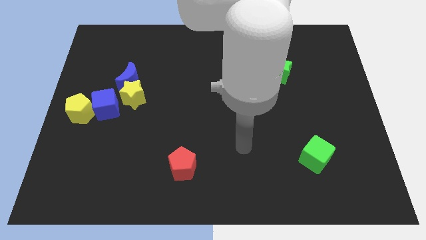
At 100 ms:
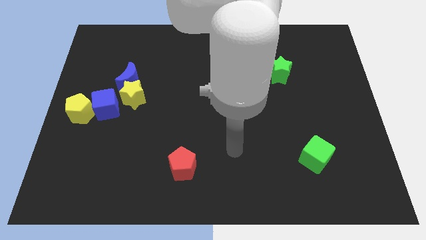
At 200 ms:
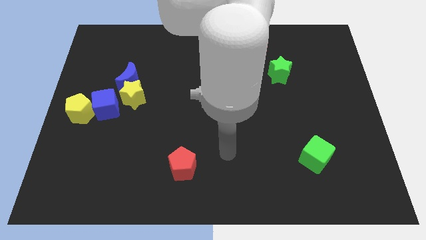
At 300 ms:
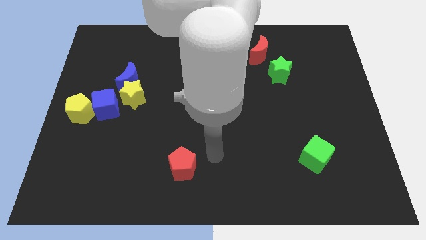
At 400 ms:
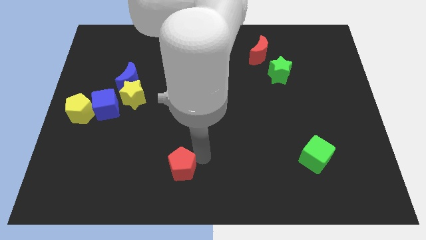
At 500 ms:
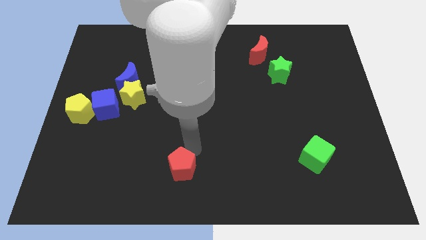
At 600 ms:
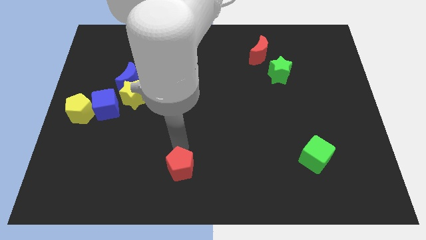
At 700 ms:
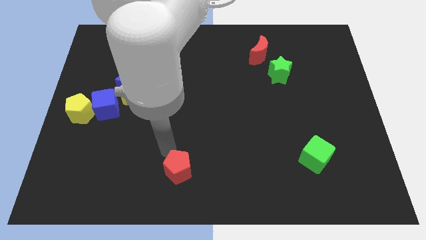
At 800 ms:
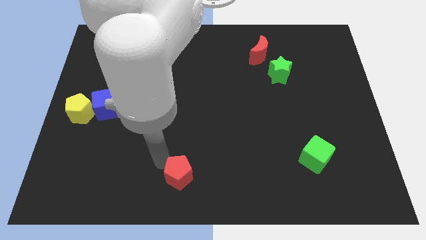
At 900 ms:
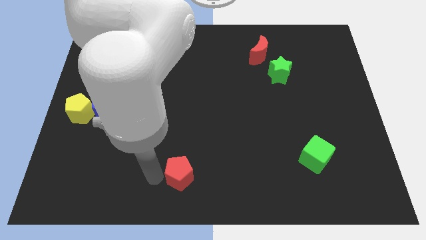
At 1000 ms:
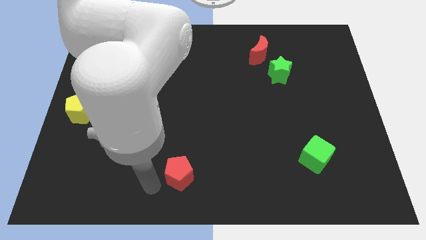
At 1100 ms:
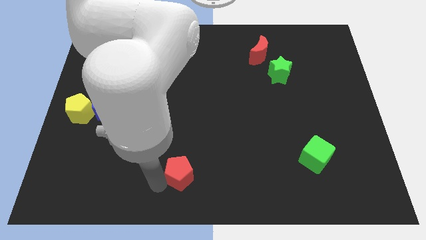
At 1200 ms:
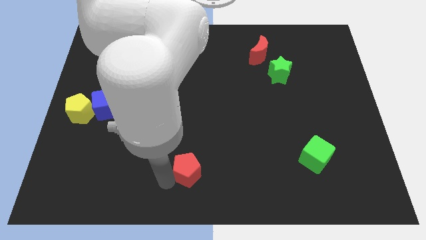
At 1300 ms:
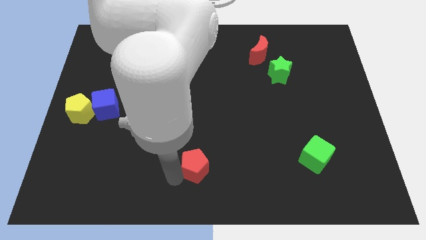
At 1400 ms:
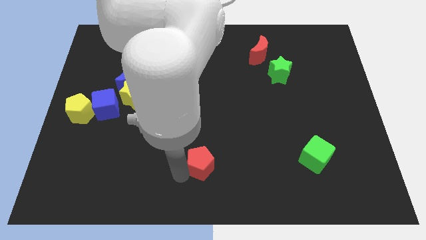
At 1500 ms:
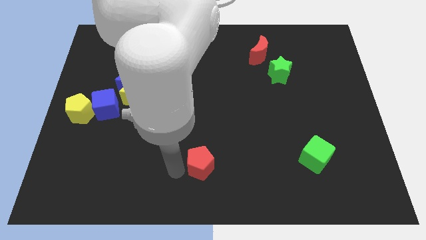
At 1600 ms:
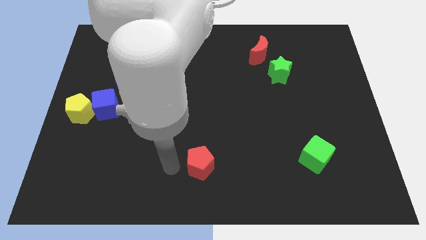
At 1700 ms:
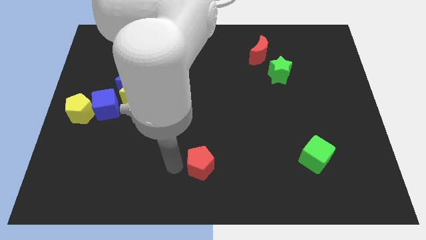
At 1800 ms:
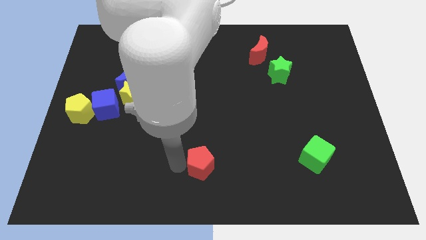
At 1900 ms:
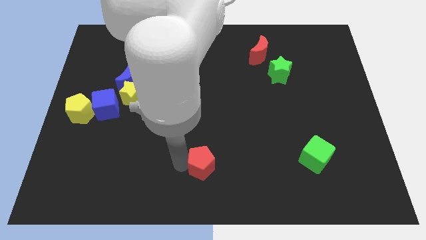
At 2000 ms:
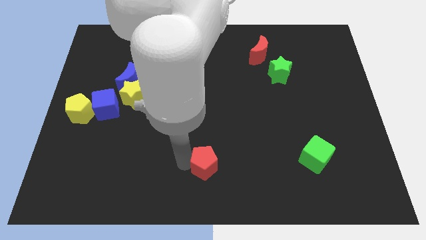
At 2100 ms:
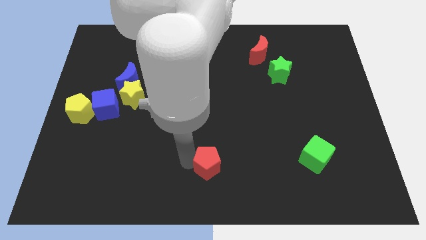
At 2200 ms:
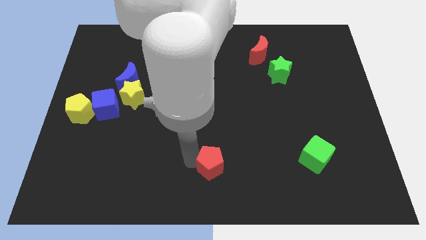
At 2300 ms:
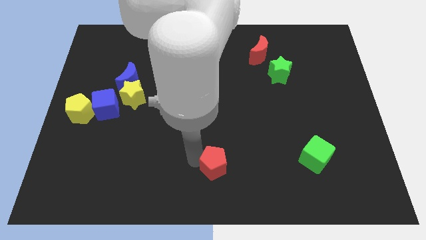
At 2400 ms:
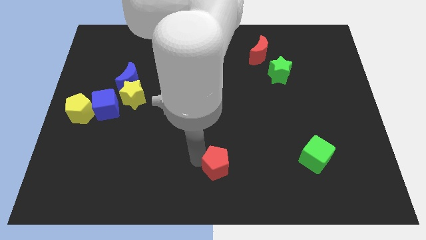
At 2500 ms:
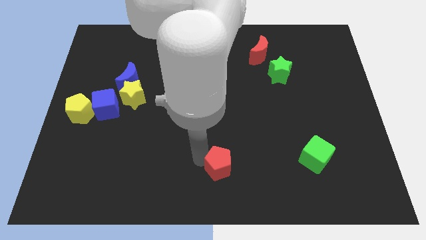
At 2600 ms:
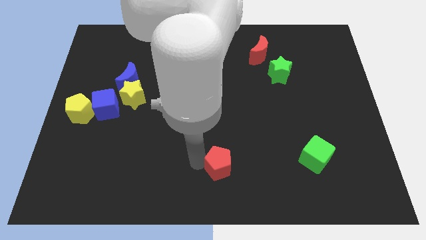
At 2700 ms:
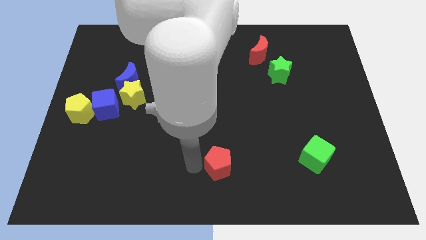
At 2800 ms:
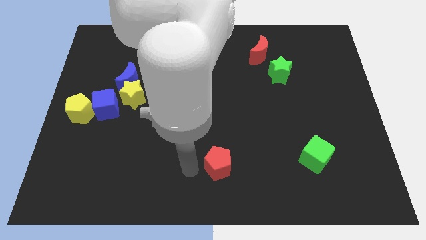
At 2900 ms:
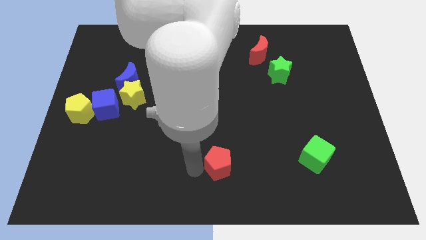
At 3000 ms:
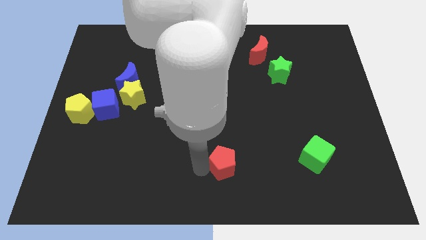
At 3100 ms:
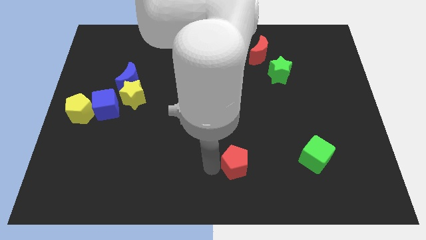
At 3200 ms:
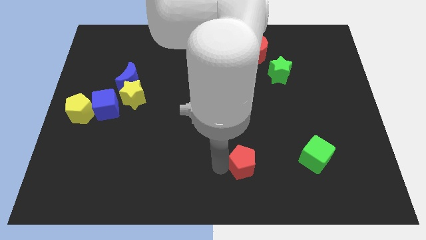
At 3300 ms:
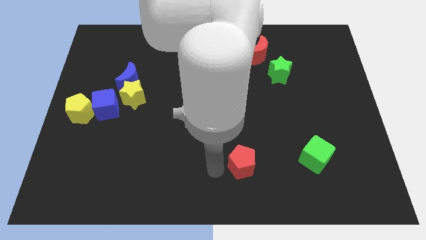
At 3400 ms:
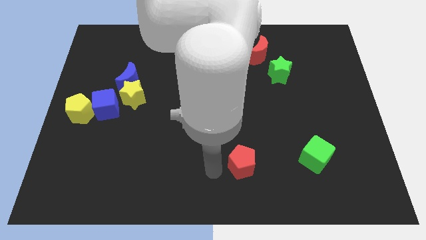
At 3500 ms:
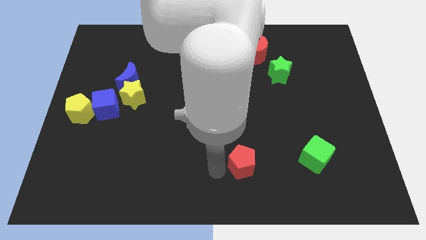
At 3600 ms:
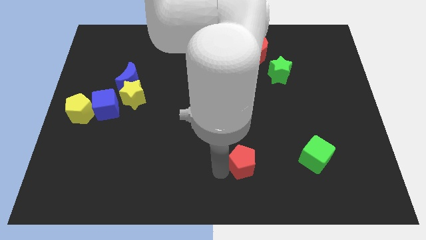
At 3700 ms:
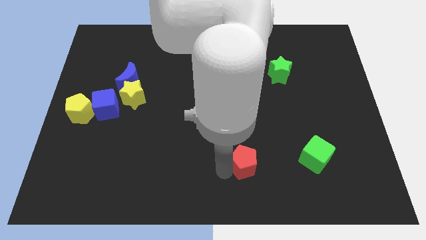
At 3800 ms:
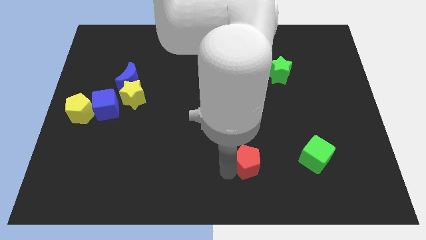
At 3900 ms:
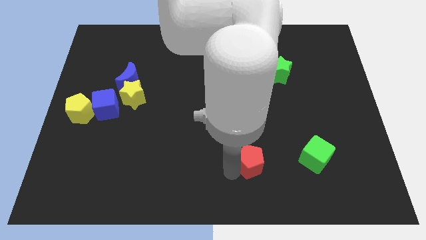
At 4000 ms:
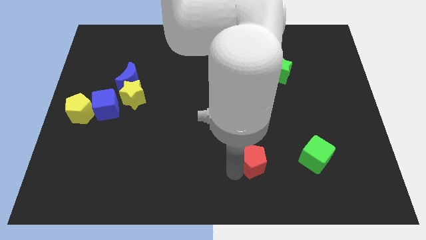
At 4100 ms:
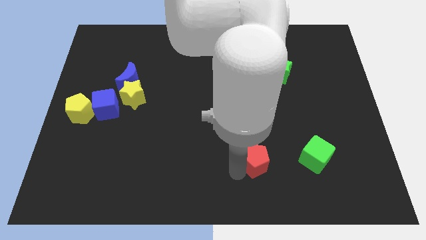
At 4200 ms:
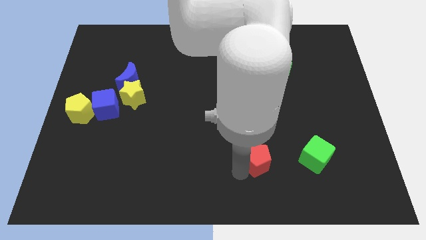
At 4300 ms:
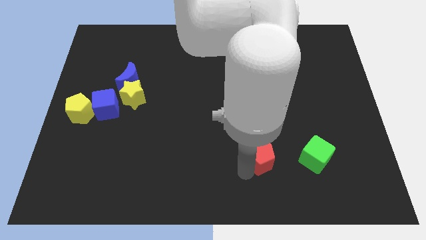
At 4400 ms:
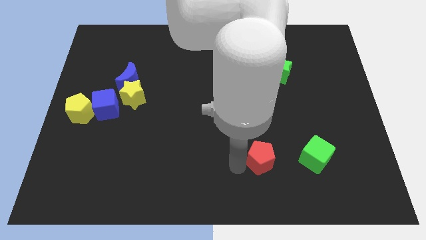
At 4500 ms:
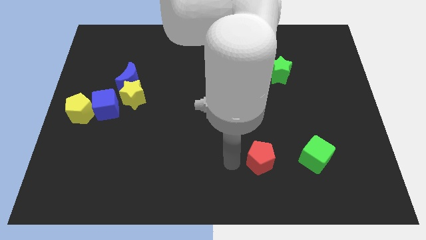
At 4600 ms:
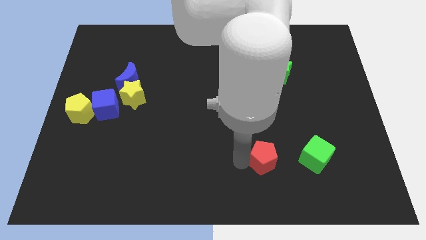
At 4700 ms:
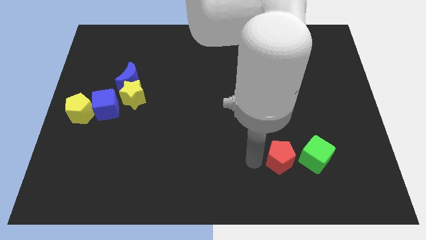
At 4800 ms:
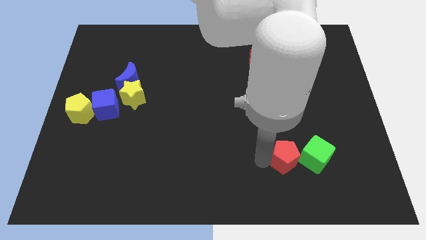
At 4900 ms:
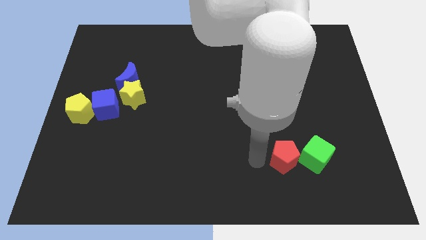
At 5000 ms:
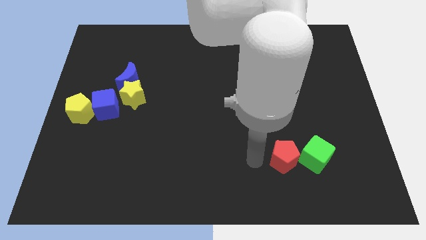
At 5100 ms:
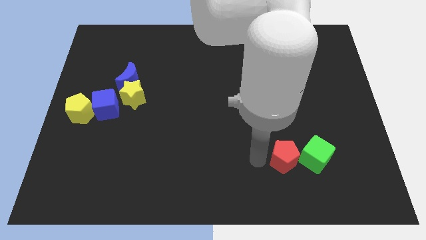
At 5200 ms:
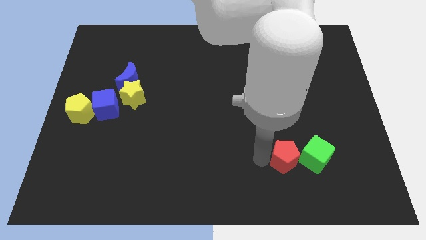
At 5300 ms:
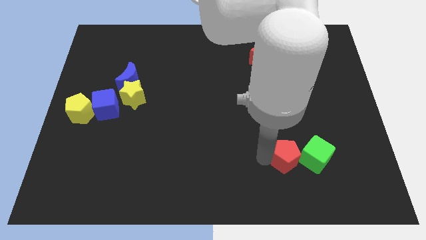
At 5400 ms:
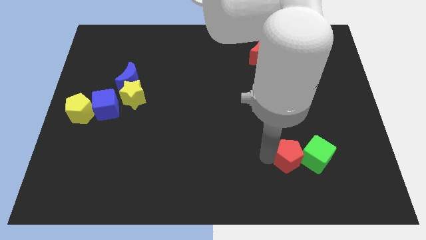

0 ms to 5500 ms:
move the red pentagon close to the green cube

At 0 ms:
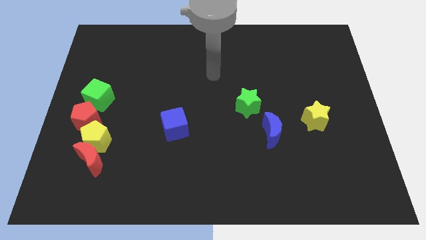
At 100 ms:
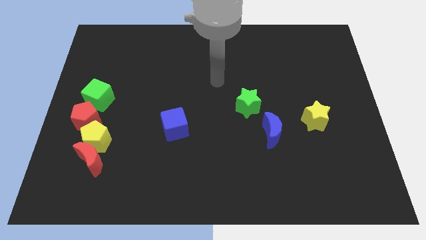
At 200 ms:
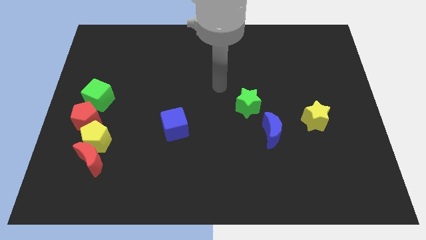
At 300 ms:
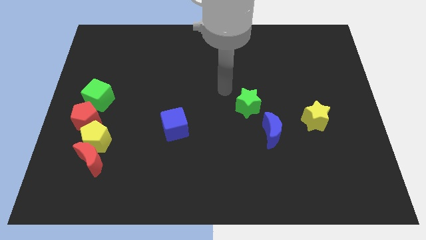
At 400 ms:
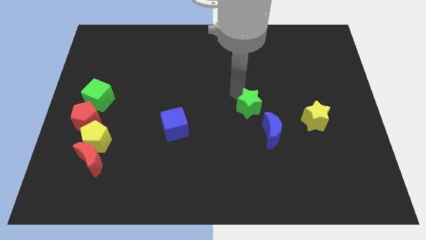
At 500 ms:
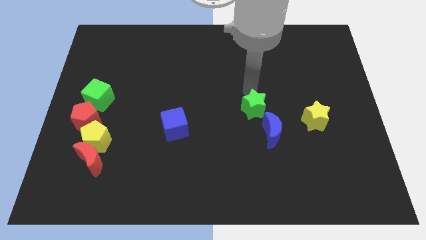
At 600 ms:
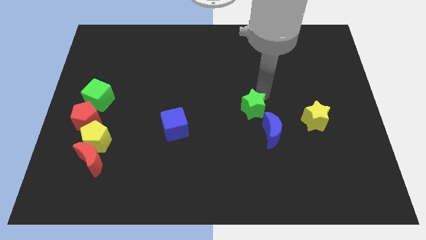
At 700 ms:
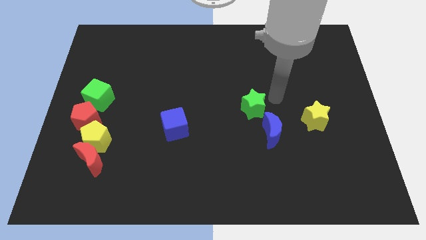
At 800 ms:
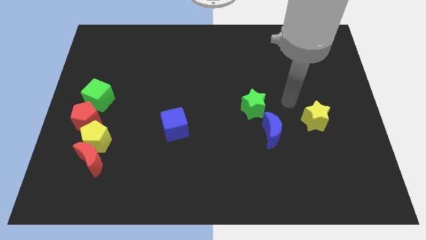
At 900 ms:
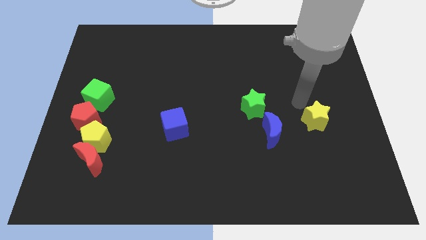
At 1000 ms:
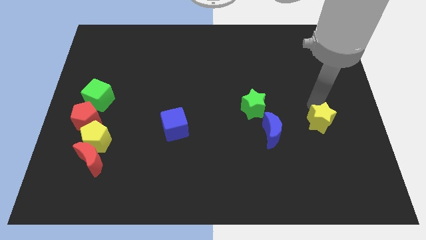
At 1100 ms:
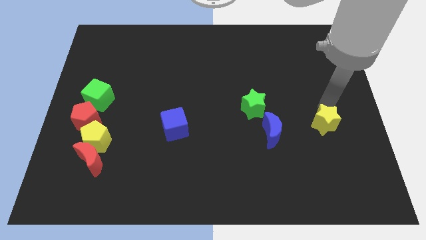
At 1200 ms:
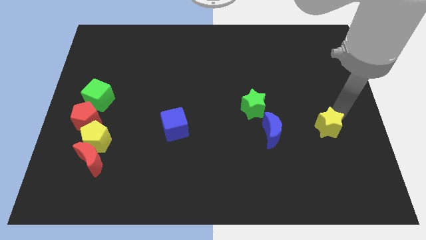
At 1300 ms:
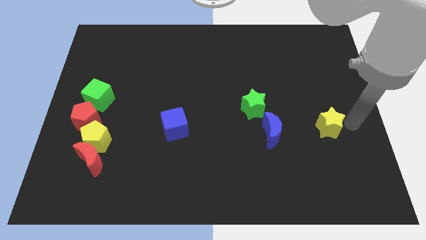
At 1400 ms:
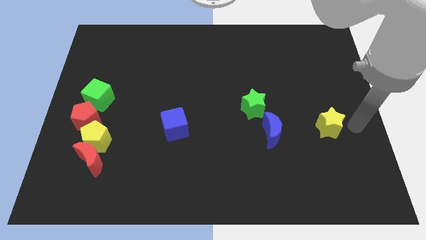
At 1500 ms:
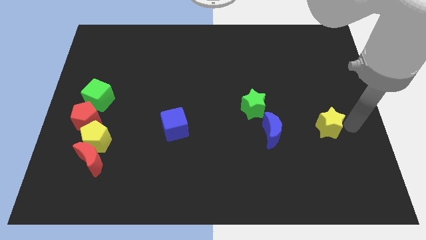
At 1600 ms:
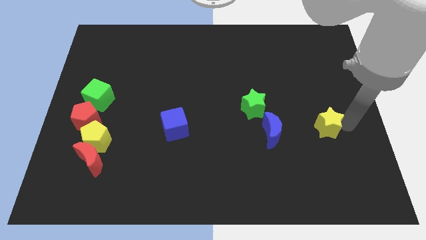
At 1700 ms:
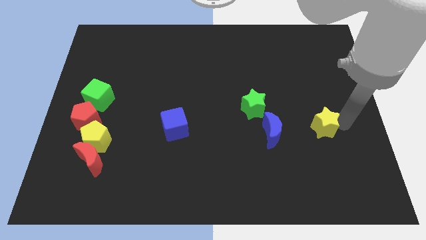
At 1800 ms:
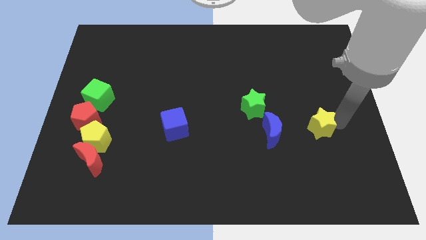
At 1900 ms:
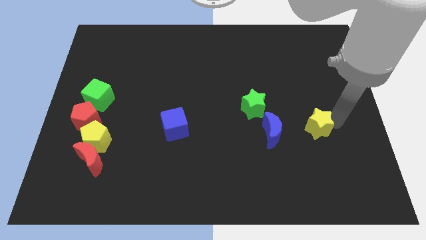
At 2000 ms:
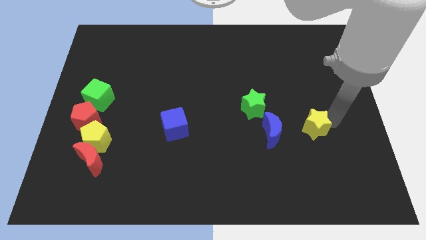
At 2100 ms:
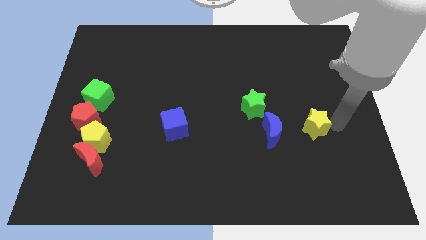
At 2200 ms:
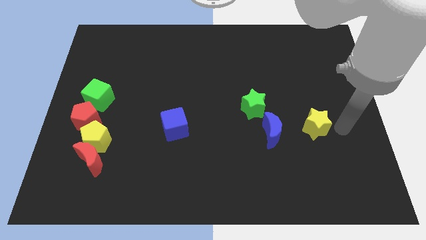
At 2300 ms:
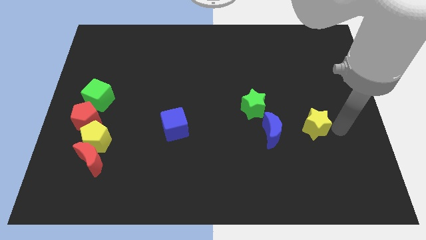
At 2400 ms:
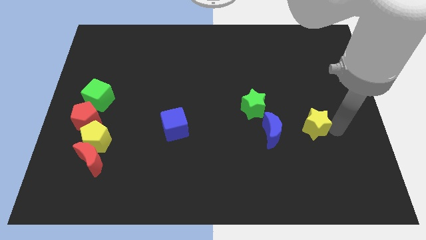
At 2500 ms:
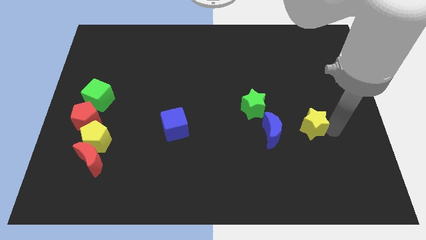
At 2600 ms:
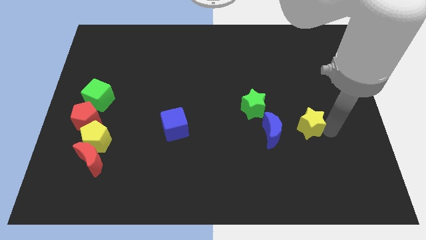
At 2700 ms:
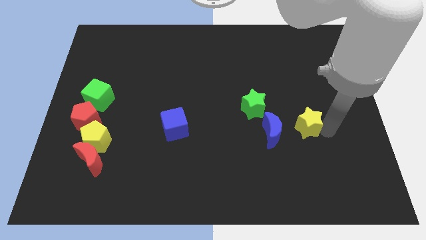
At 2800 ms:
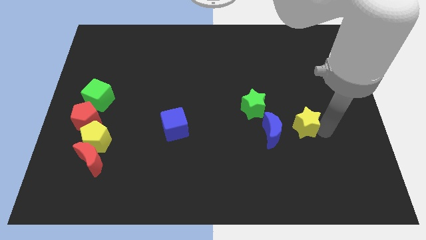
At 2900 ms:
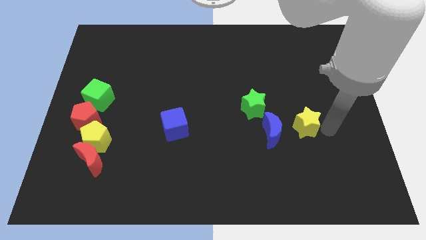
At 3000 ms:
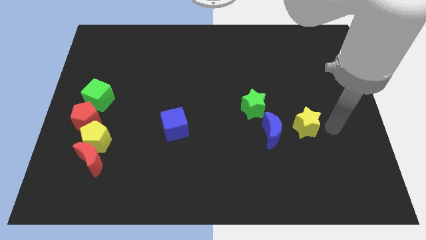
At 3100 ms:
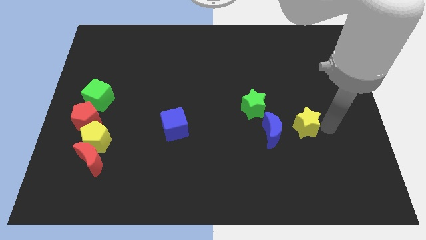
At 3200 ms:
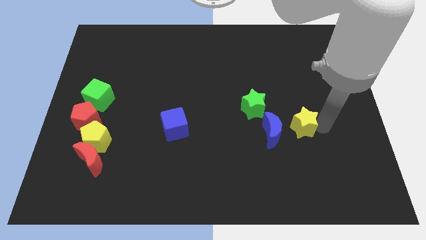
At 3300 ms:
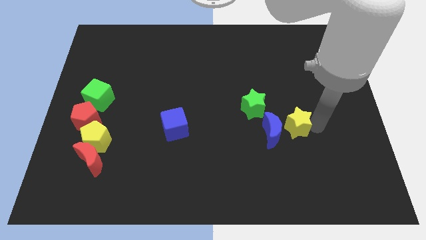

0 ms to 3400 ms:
put the yellow star to the blue moon
